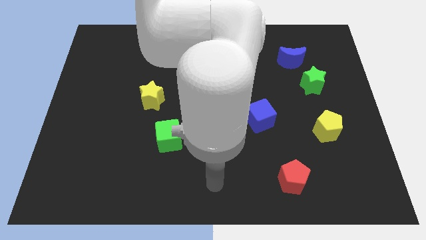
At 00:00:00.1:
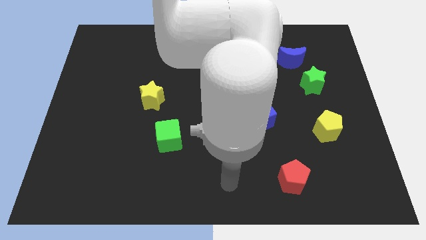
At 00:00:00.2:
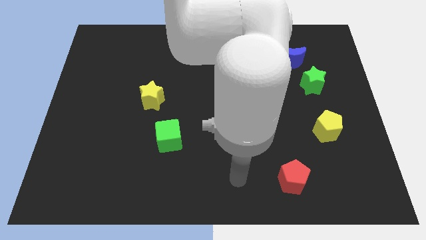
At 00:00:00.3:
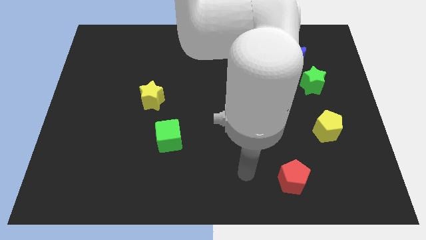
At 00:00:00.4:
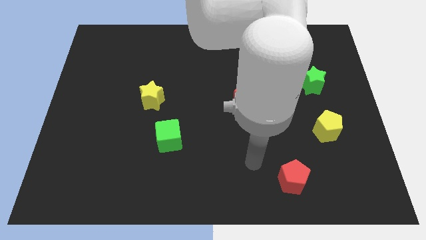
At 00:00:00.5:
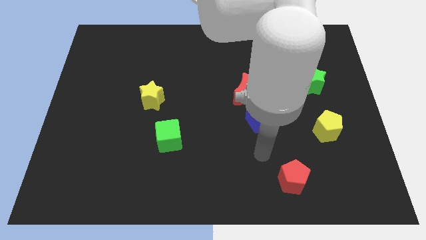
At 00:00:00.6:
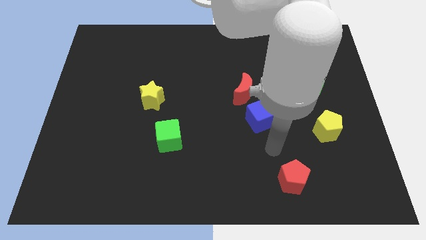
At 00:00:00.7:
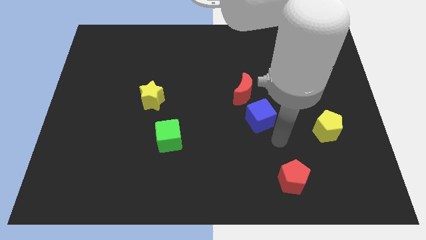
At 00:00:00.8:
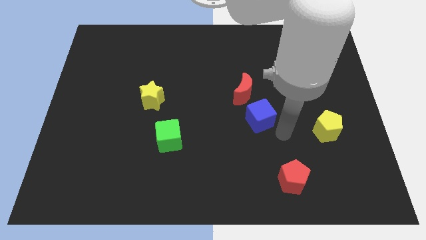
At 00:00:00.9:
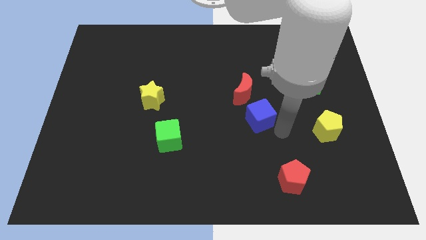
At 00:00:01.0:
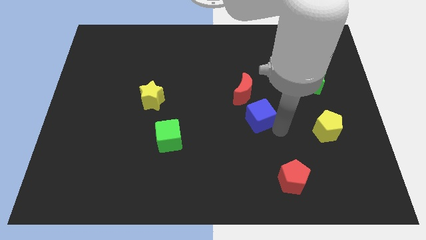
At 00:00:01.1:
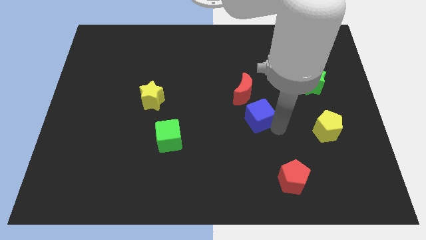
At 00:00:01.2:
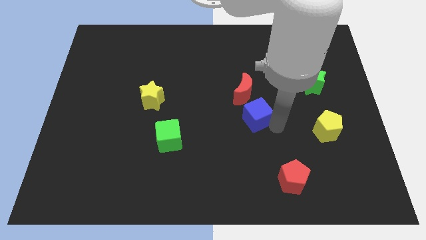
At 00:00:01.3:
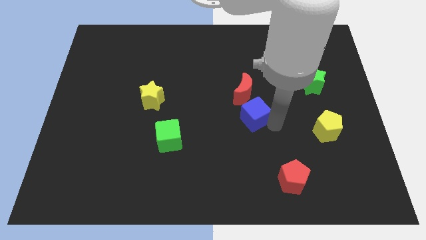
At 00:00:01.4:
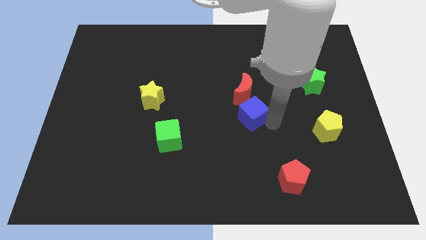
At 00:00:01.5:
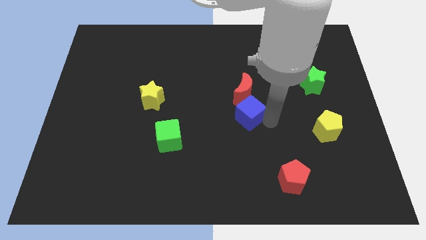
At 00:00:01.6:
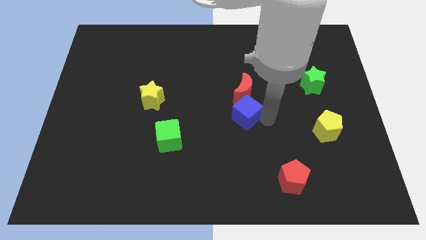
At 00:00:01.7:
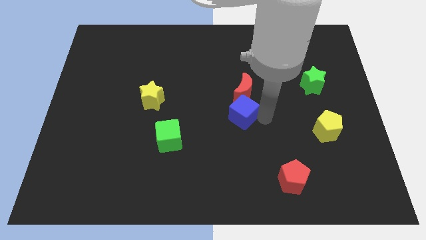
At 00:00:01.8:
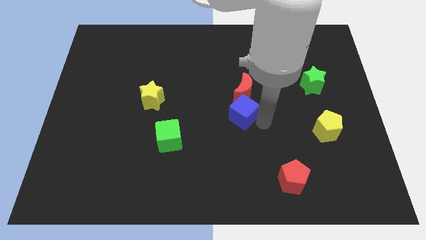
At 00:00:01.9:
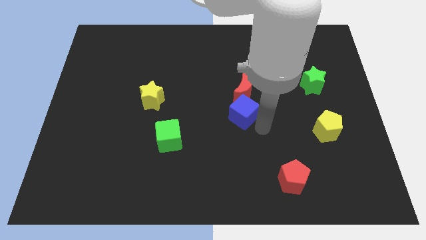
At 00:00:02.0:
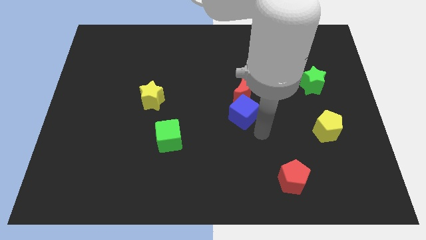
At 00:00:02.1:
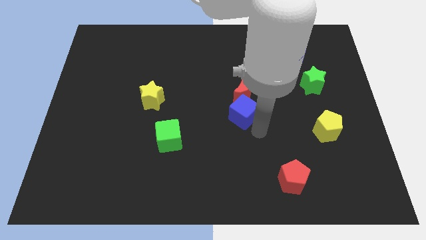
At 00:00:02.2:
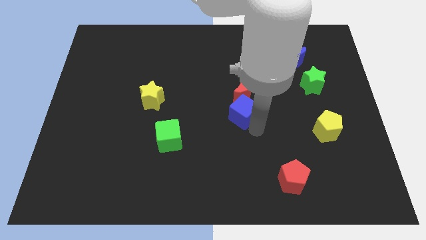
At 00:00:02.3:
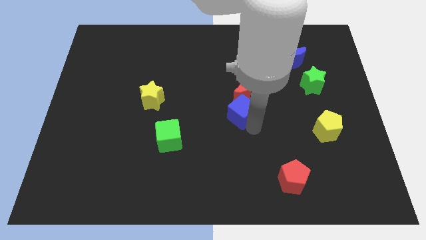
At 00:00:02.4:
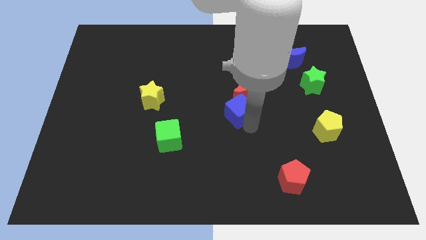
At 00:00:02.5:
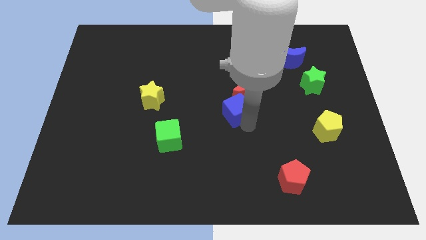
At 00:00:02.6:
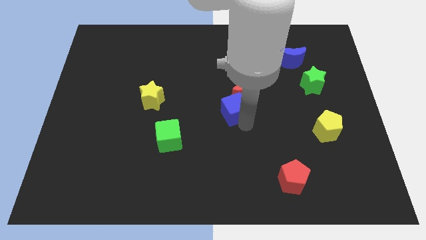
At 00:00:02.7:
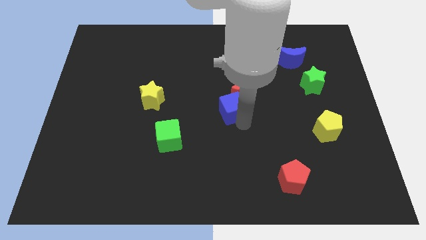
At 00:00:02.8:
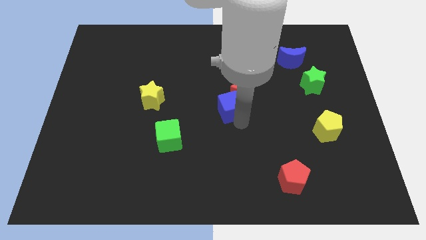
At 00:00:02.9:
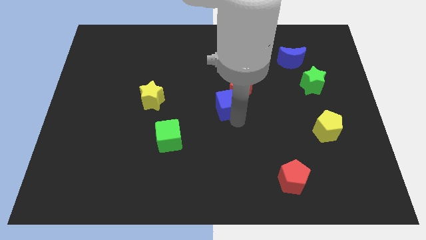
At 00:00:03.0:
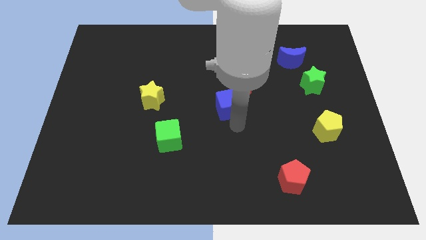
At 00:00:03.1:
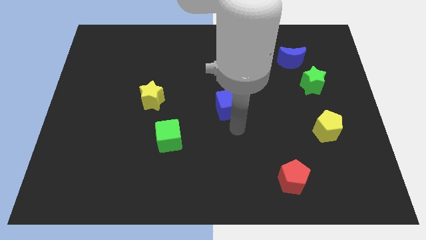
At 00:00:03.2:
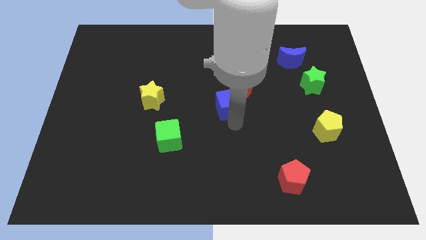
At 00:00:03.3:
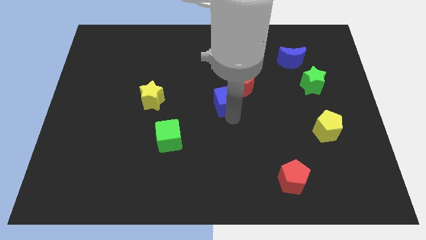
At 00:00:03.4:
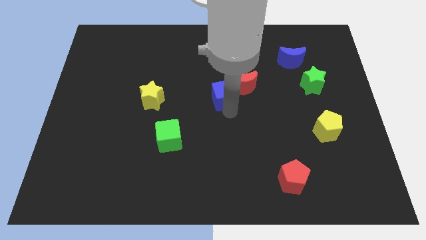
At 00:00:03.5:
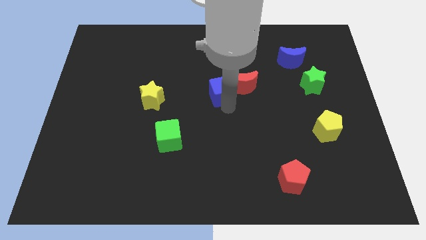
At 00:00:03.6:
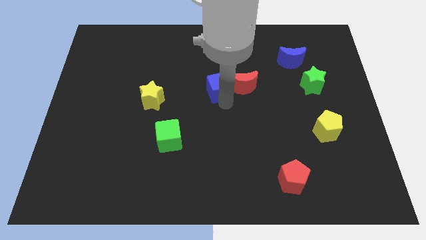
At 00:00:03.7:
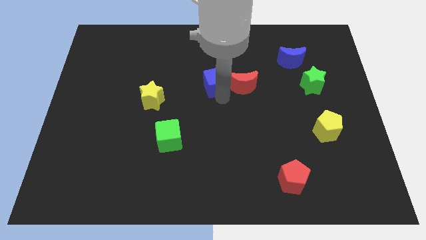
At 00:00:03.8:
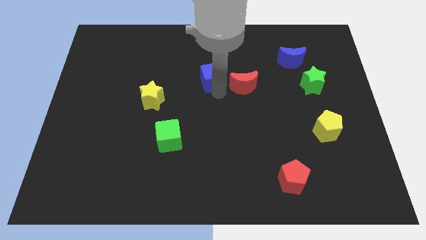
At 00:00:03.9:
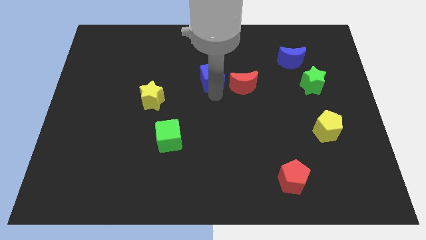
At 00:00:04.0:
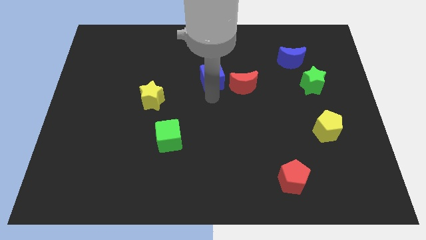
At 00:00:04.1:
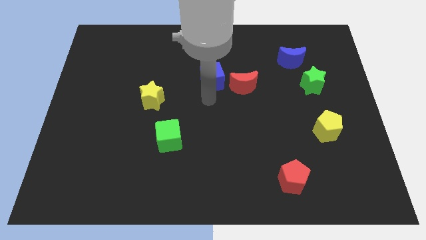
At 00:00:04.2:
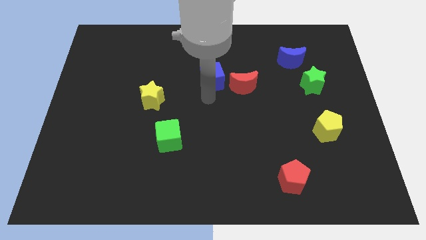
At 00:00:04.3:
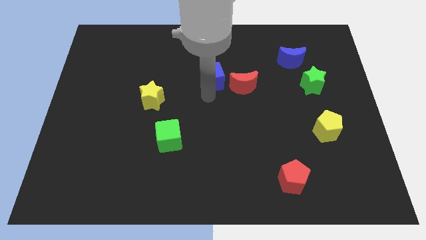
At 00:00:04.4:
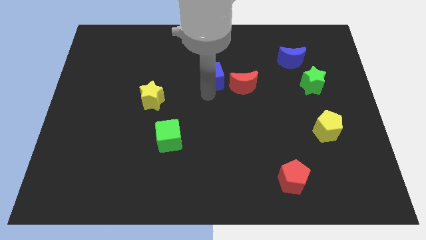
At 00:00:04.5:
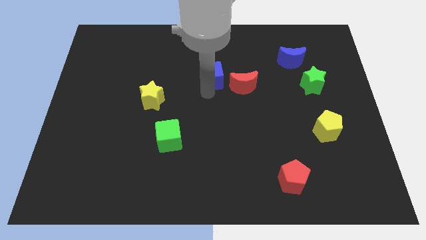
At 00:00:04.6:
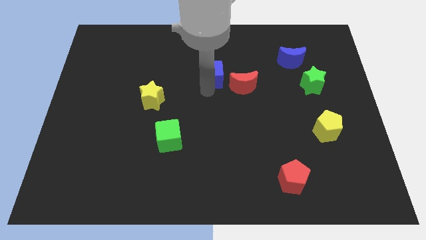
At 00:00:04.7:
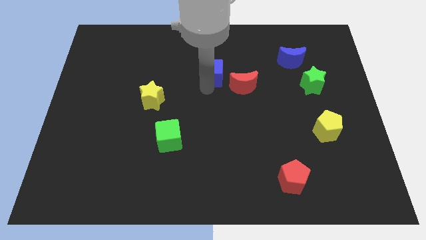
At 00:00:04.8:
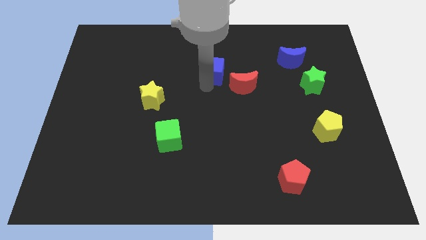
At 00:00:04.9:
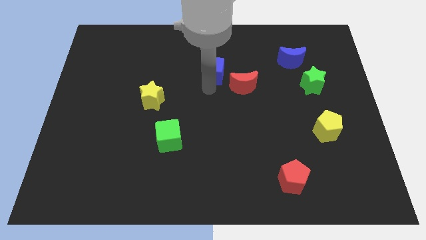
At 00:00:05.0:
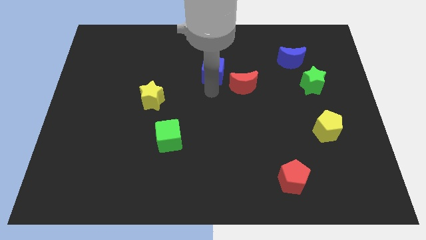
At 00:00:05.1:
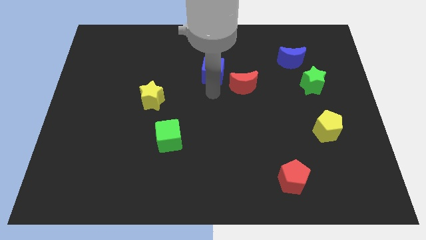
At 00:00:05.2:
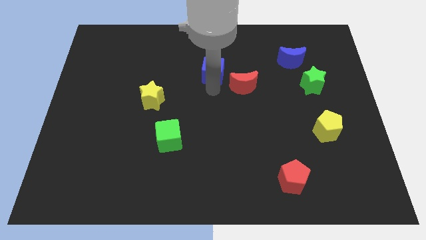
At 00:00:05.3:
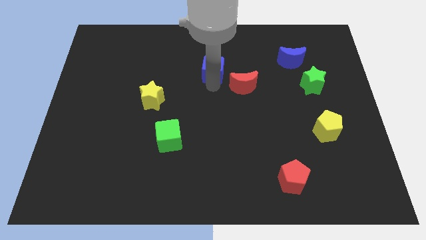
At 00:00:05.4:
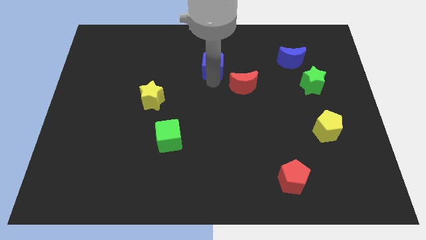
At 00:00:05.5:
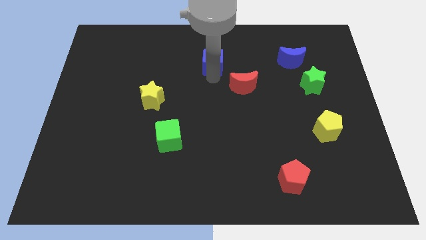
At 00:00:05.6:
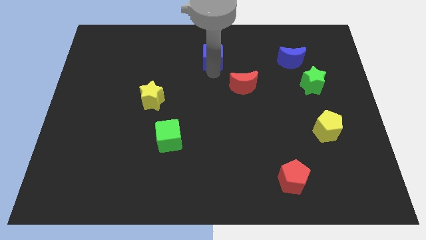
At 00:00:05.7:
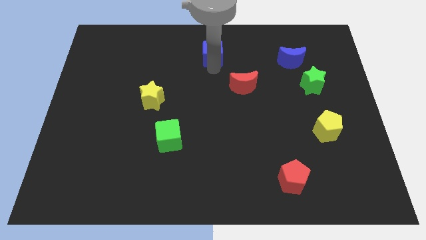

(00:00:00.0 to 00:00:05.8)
move the blue cube to the towards your base

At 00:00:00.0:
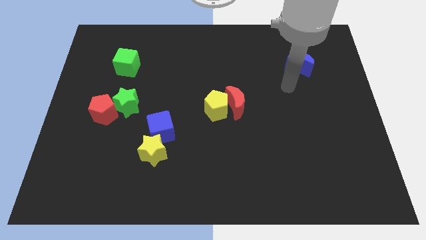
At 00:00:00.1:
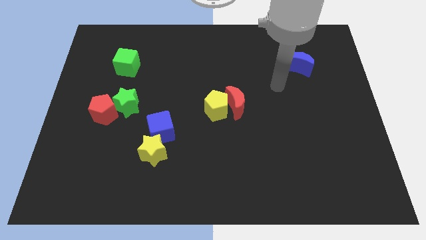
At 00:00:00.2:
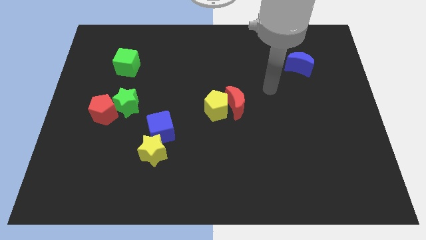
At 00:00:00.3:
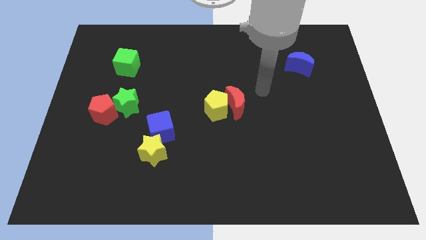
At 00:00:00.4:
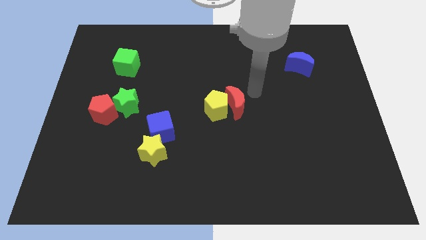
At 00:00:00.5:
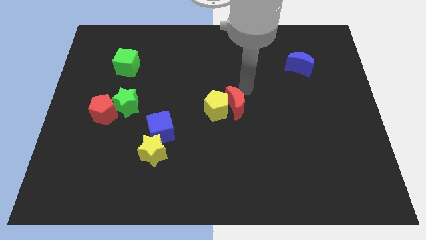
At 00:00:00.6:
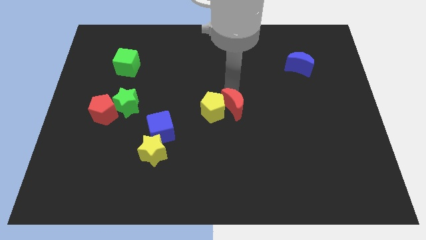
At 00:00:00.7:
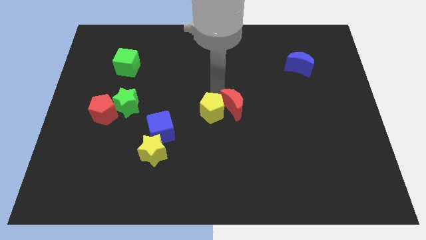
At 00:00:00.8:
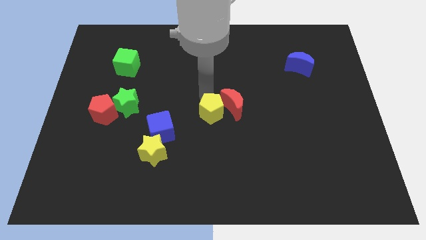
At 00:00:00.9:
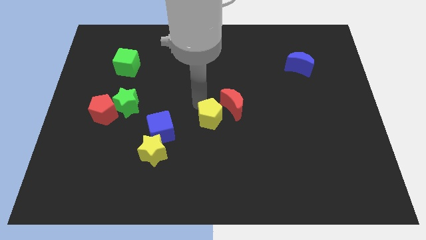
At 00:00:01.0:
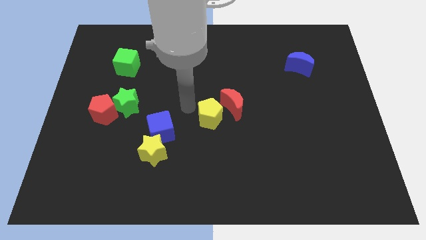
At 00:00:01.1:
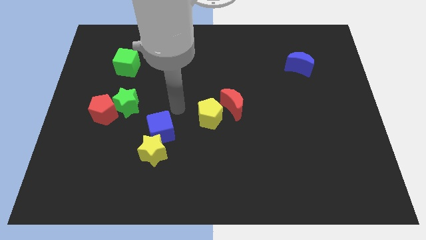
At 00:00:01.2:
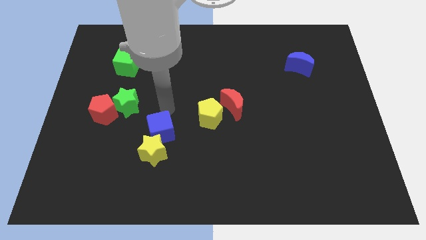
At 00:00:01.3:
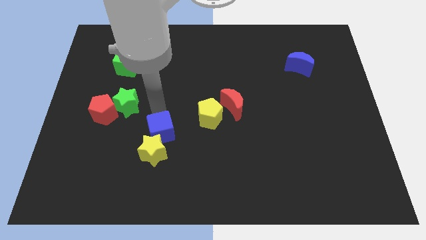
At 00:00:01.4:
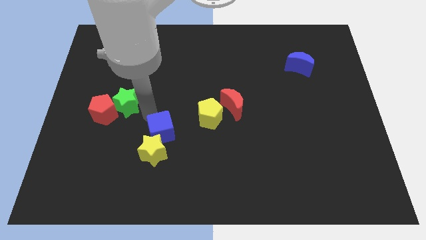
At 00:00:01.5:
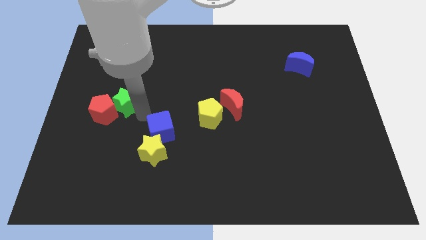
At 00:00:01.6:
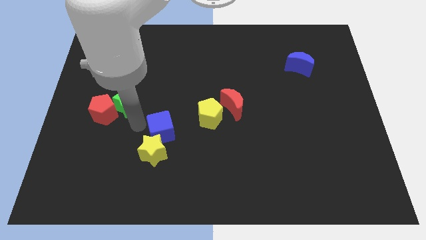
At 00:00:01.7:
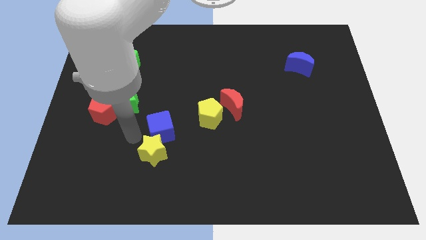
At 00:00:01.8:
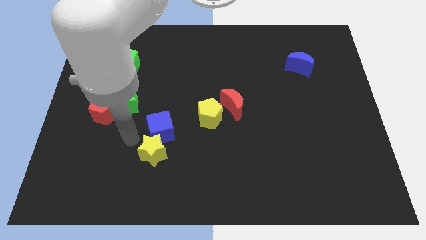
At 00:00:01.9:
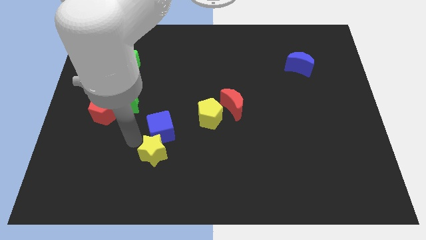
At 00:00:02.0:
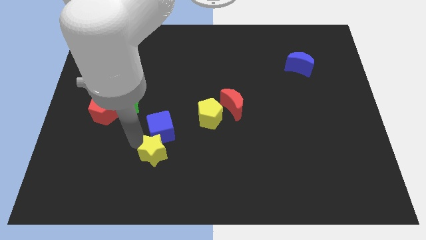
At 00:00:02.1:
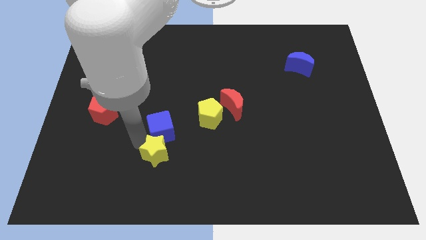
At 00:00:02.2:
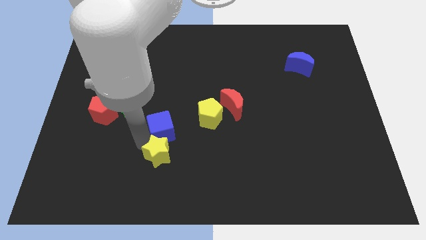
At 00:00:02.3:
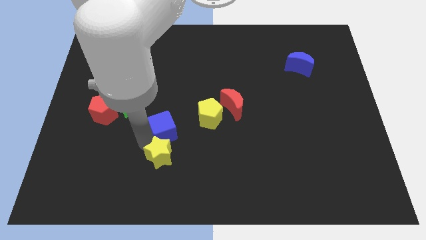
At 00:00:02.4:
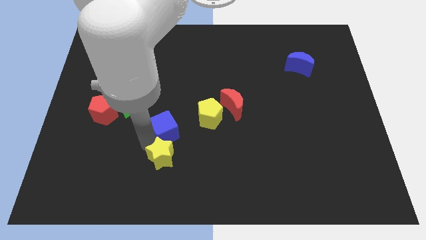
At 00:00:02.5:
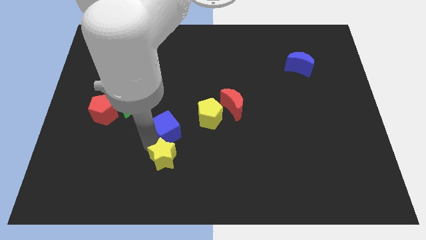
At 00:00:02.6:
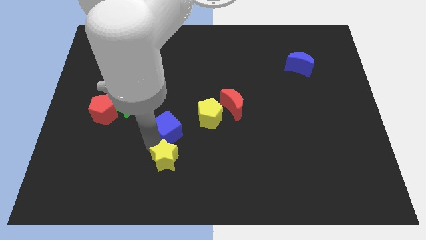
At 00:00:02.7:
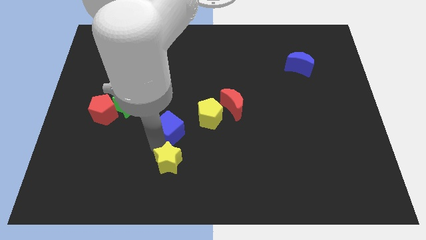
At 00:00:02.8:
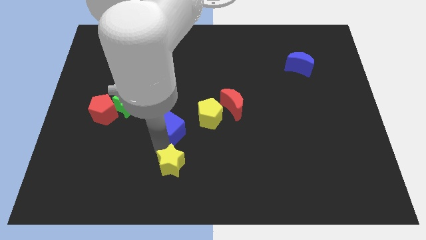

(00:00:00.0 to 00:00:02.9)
put the yellow star to the bottom side
